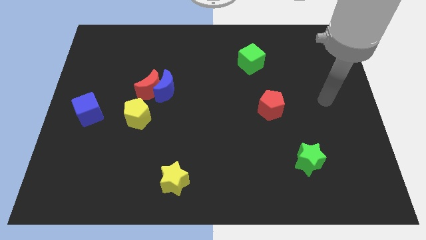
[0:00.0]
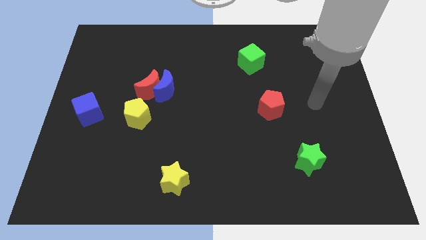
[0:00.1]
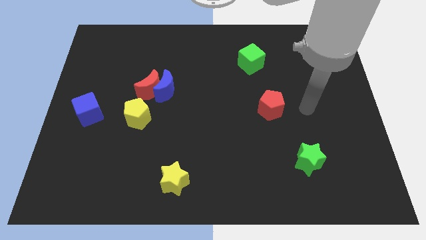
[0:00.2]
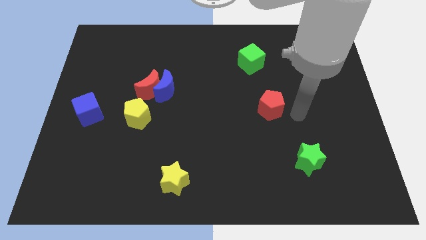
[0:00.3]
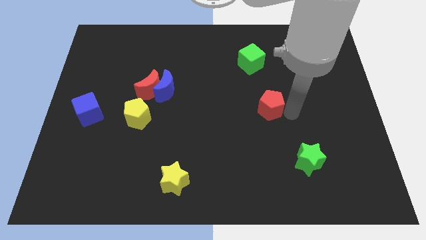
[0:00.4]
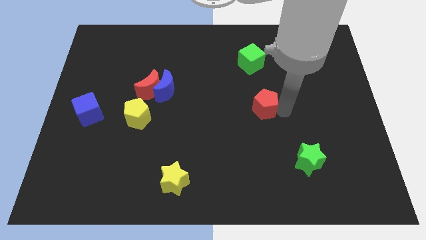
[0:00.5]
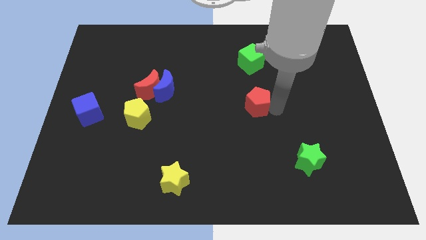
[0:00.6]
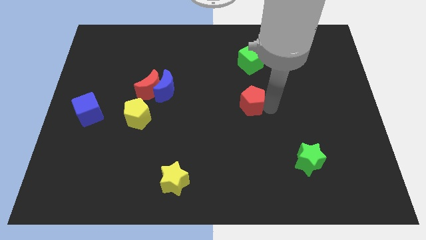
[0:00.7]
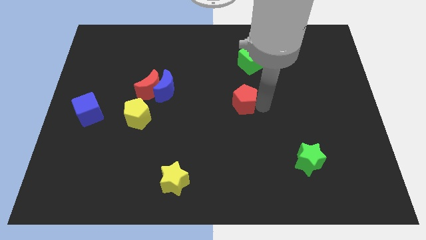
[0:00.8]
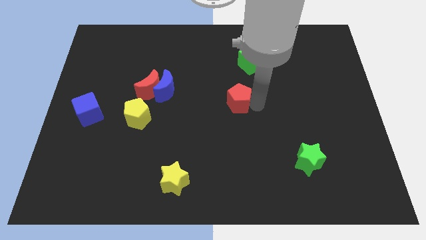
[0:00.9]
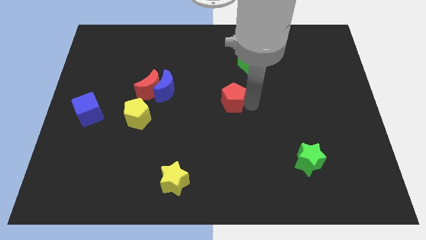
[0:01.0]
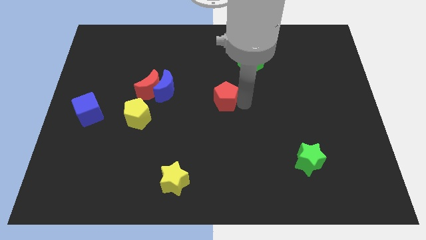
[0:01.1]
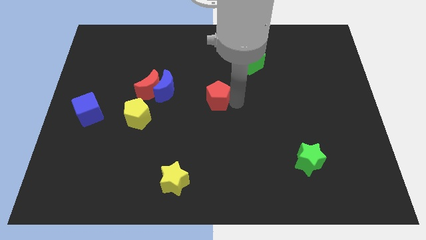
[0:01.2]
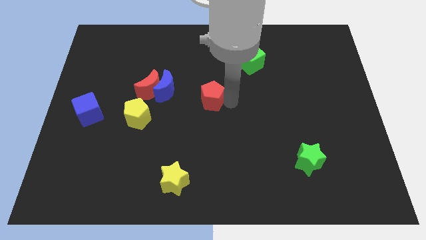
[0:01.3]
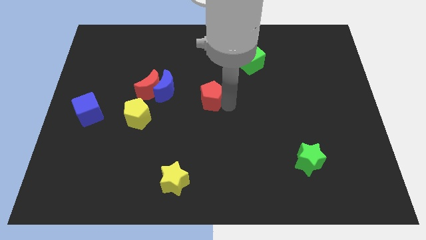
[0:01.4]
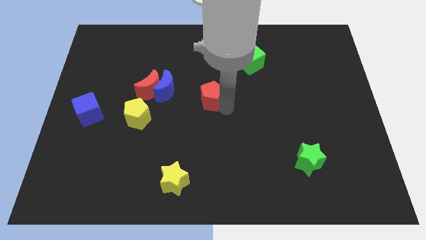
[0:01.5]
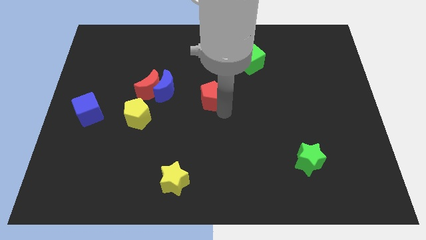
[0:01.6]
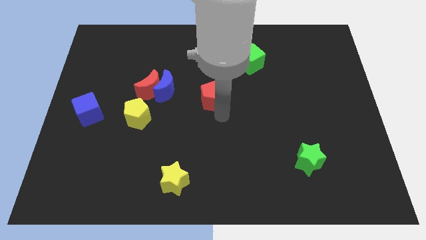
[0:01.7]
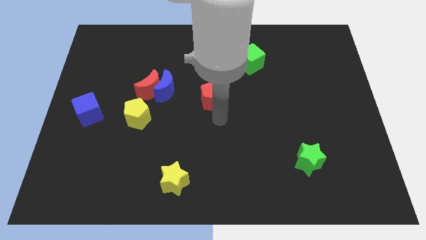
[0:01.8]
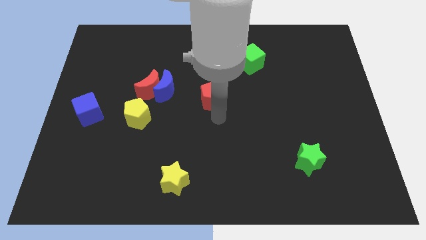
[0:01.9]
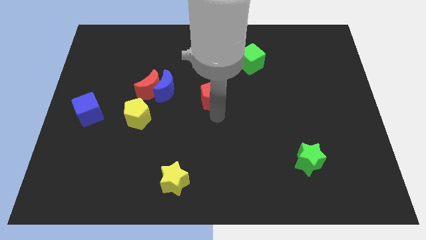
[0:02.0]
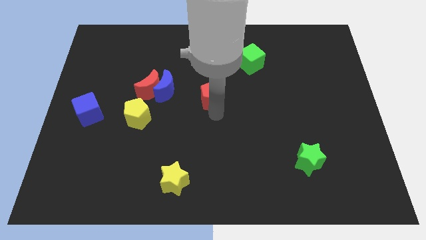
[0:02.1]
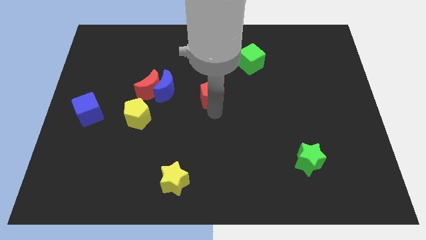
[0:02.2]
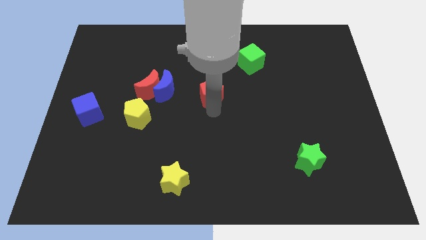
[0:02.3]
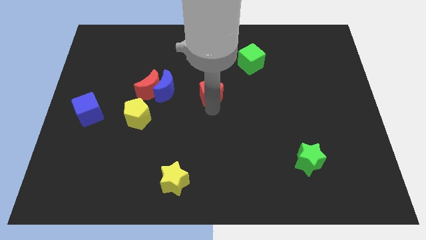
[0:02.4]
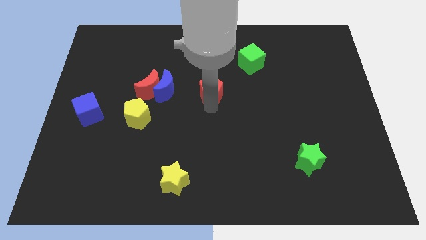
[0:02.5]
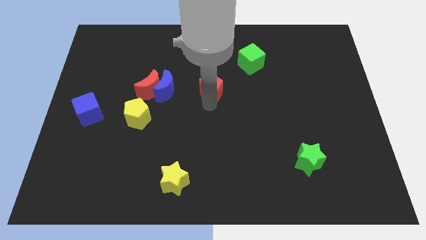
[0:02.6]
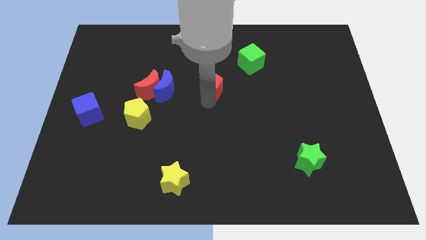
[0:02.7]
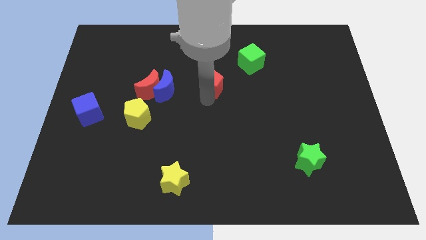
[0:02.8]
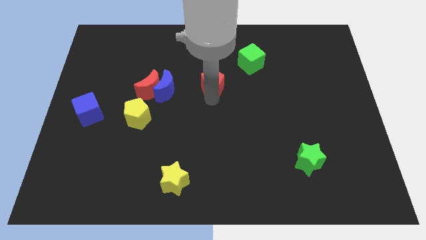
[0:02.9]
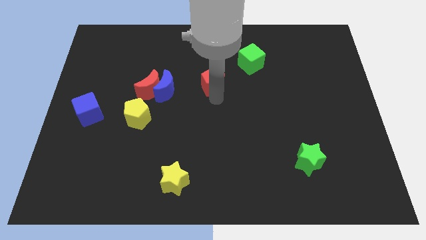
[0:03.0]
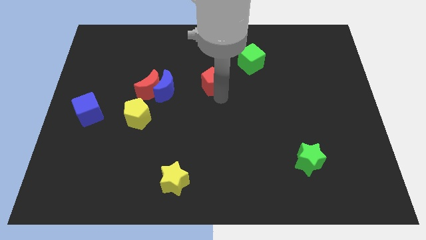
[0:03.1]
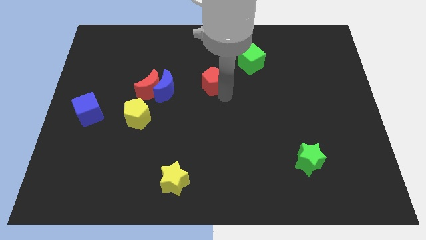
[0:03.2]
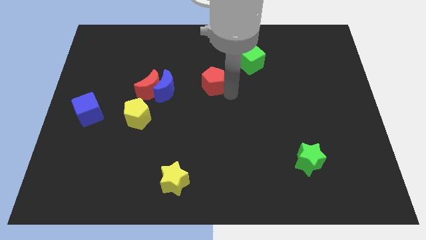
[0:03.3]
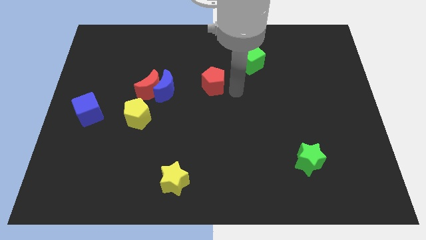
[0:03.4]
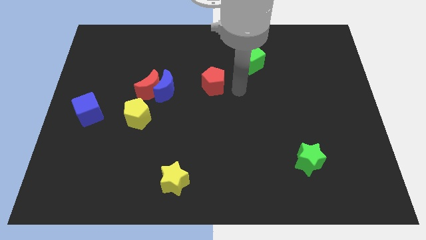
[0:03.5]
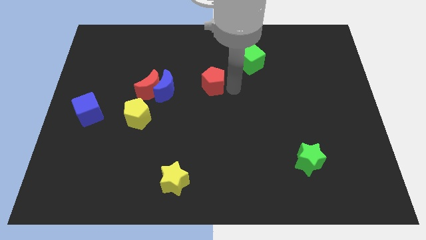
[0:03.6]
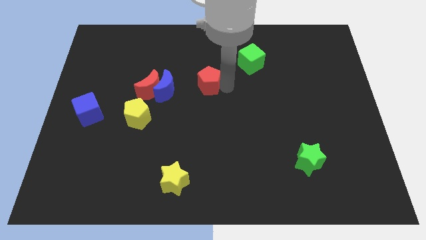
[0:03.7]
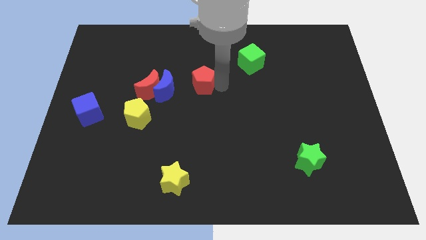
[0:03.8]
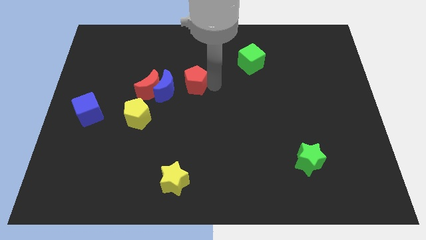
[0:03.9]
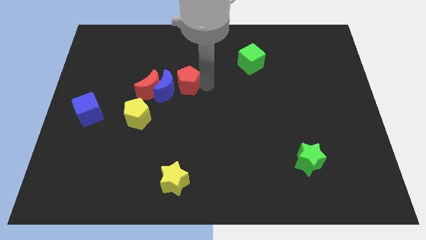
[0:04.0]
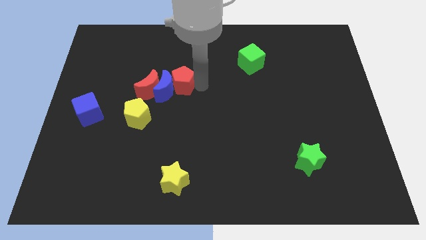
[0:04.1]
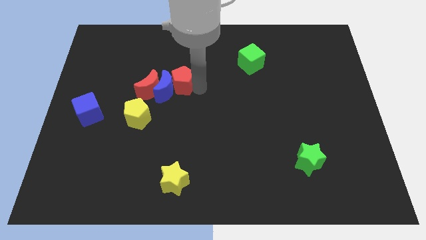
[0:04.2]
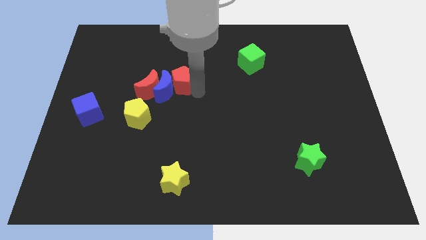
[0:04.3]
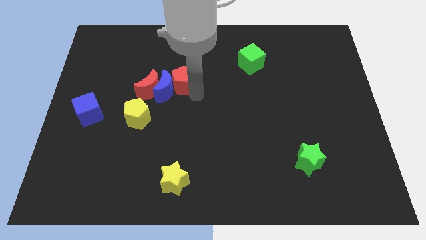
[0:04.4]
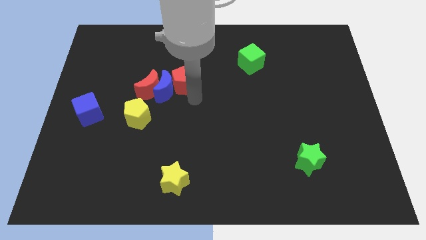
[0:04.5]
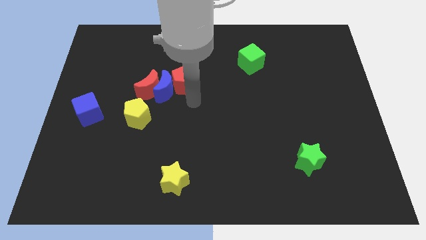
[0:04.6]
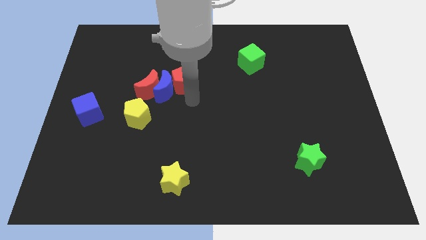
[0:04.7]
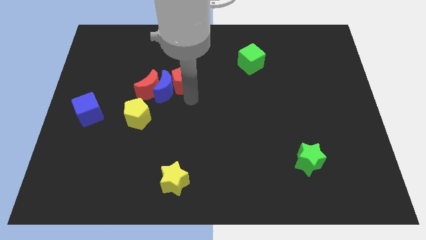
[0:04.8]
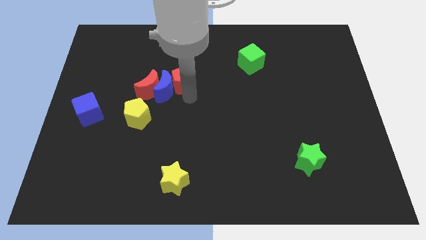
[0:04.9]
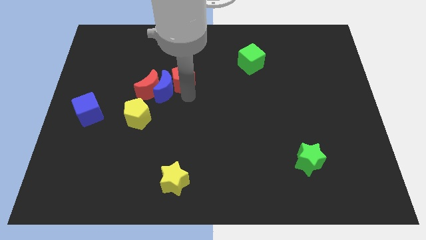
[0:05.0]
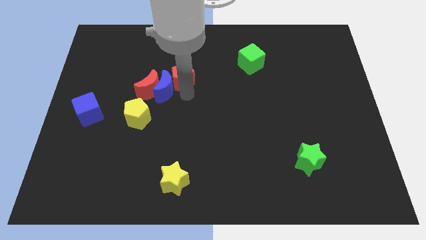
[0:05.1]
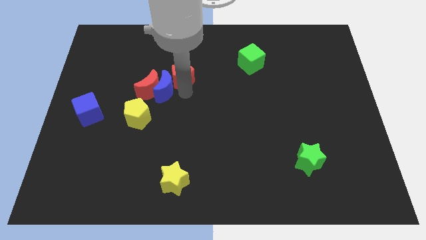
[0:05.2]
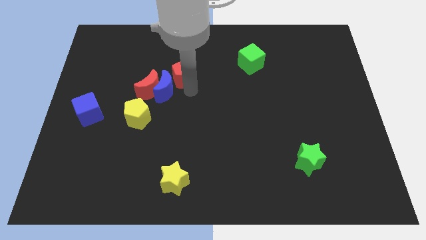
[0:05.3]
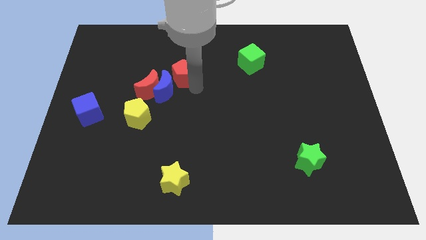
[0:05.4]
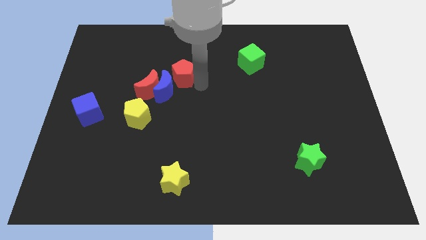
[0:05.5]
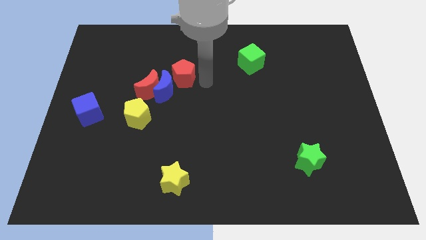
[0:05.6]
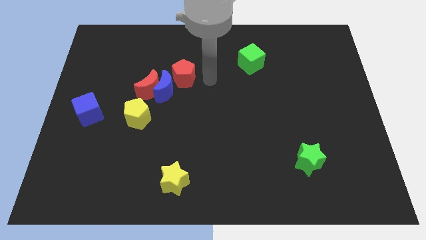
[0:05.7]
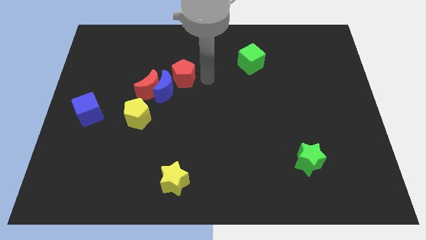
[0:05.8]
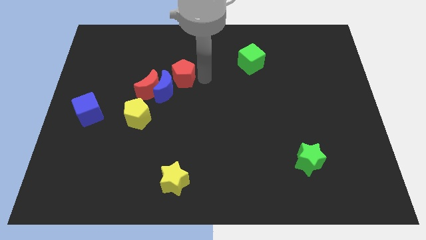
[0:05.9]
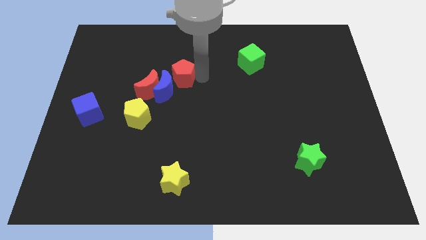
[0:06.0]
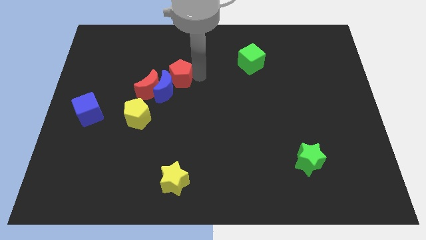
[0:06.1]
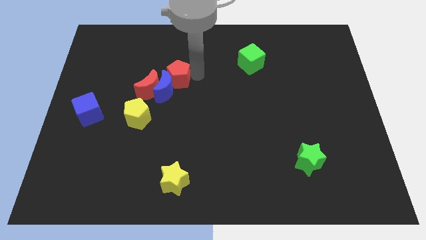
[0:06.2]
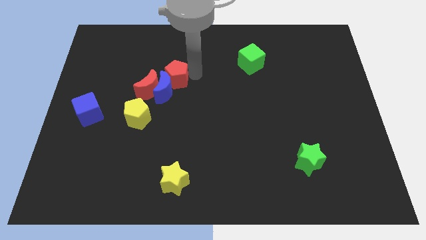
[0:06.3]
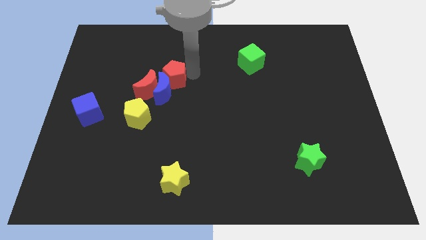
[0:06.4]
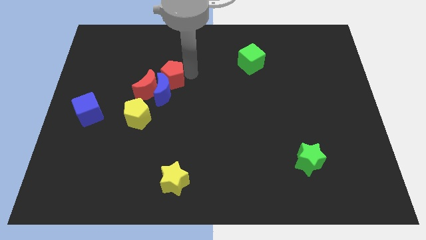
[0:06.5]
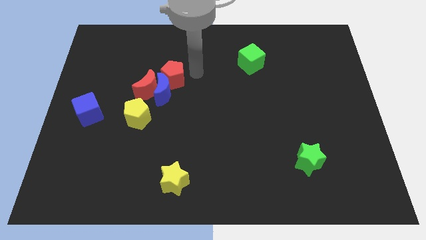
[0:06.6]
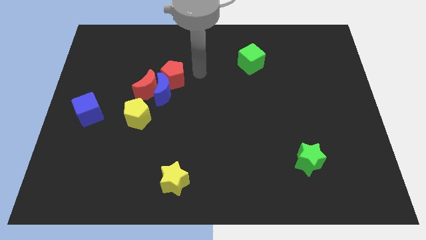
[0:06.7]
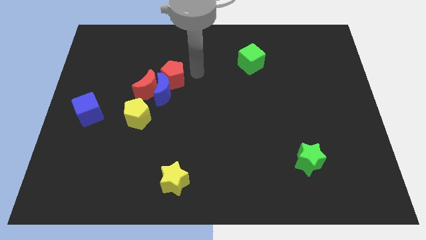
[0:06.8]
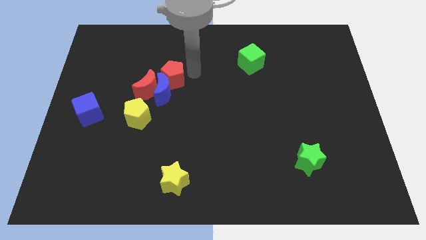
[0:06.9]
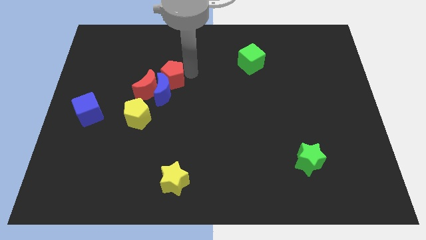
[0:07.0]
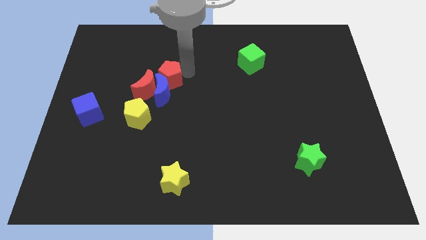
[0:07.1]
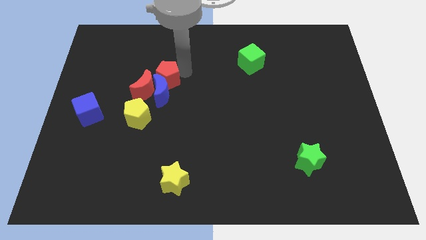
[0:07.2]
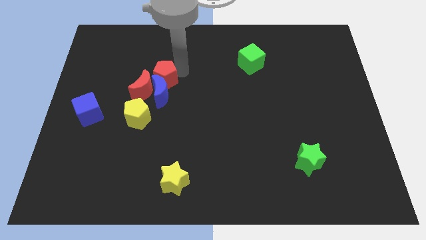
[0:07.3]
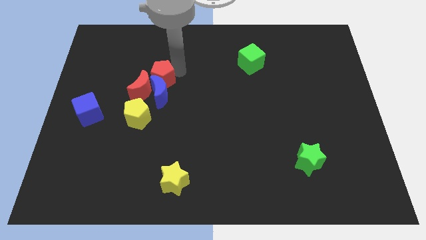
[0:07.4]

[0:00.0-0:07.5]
slide the red pentagon above the yellow pentagon

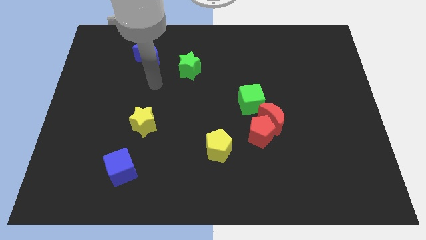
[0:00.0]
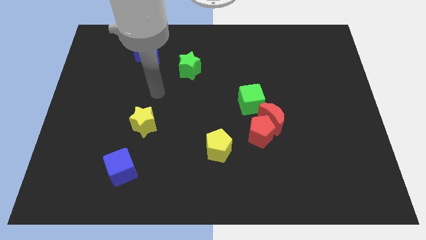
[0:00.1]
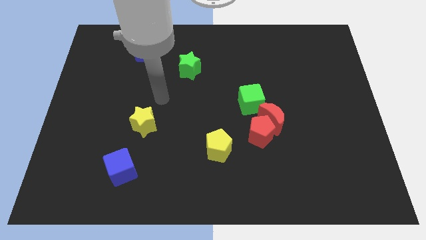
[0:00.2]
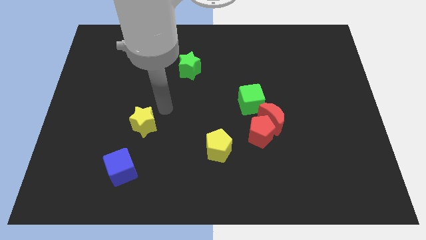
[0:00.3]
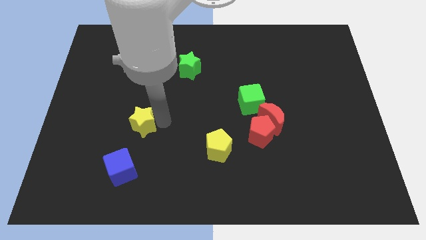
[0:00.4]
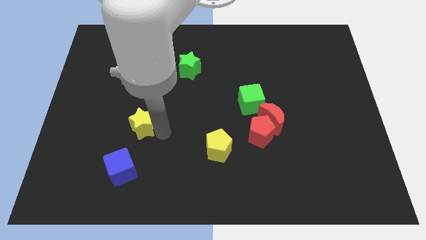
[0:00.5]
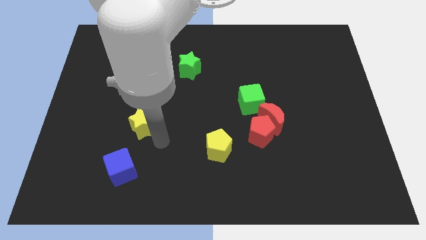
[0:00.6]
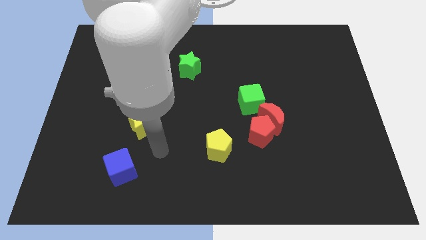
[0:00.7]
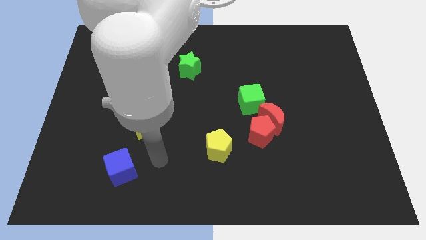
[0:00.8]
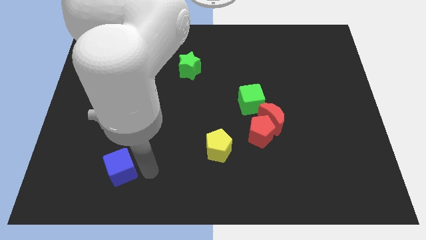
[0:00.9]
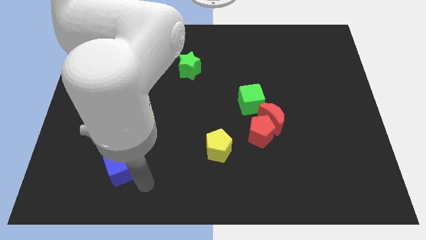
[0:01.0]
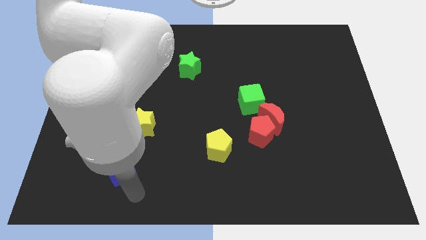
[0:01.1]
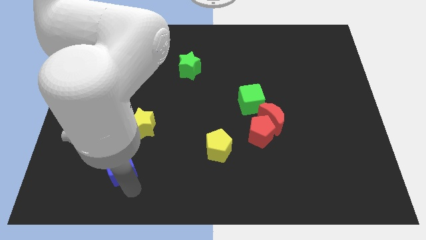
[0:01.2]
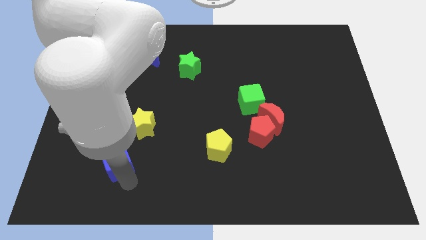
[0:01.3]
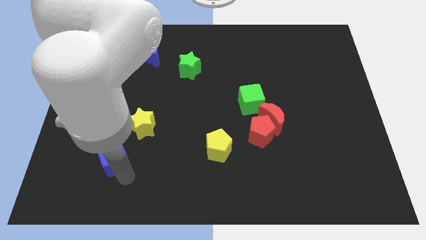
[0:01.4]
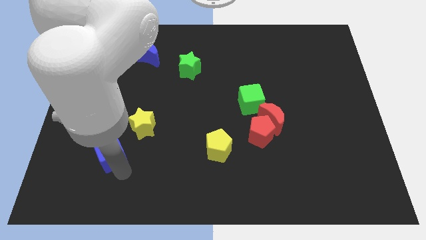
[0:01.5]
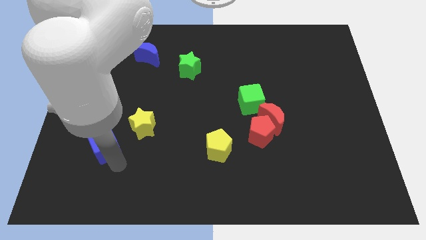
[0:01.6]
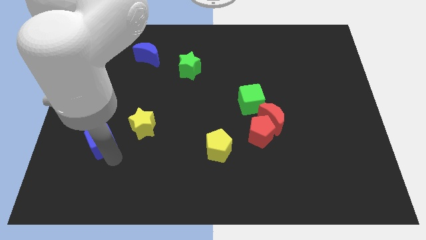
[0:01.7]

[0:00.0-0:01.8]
push the blue cube just left of the yellow star
